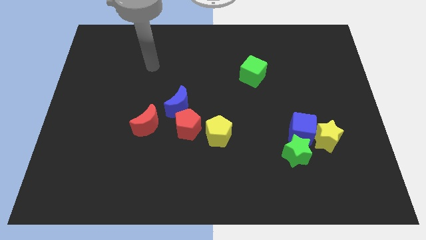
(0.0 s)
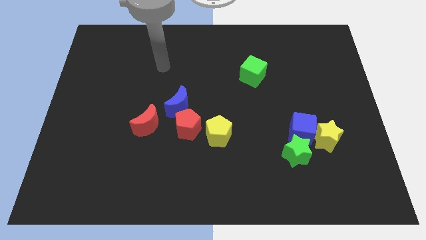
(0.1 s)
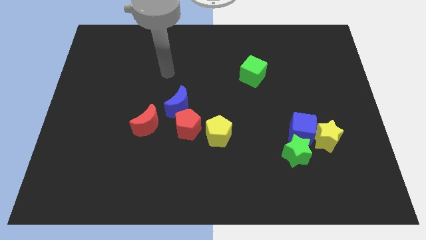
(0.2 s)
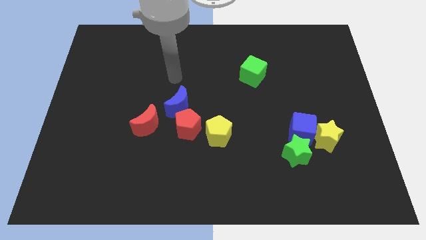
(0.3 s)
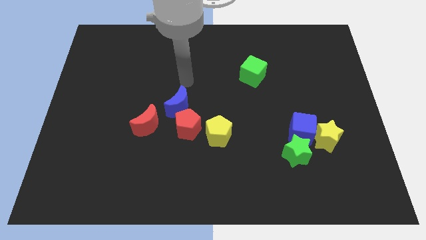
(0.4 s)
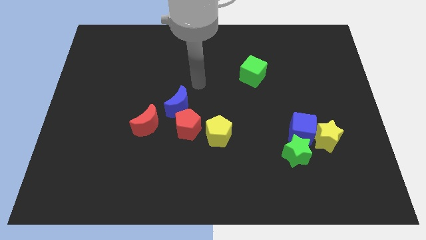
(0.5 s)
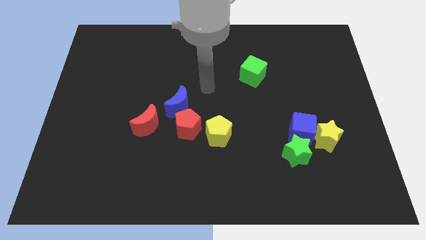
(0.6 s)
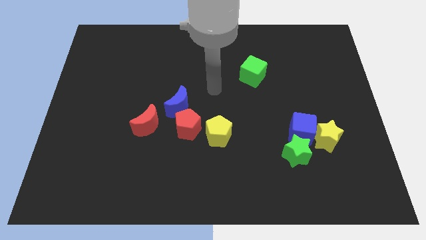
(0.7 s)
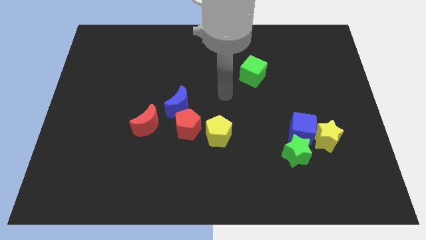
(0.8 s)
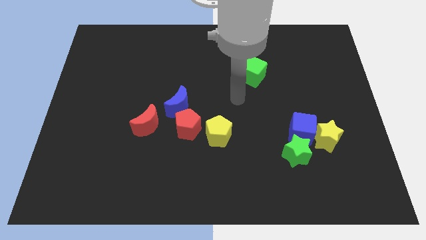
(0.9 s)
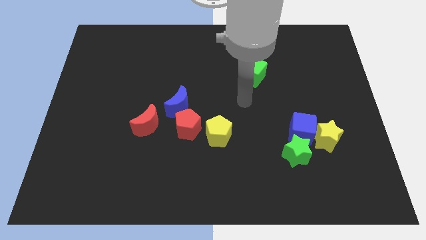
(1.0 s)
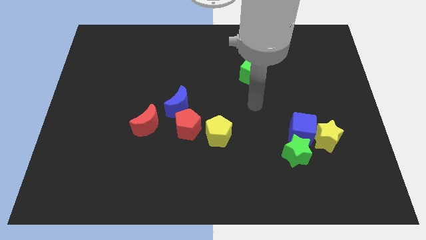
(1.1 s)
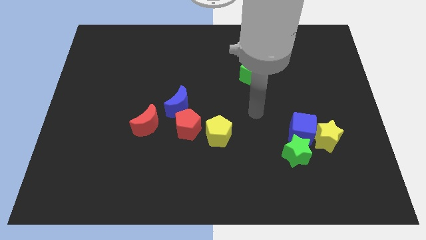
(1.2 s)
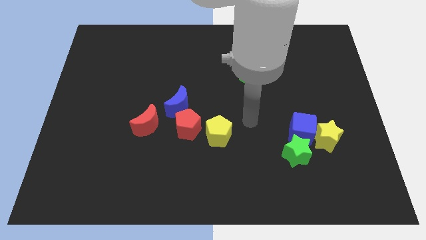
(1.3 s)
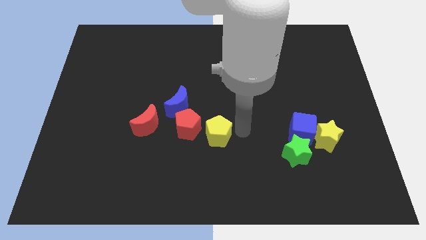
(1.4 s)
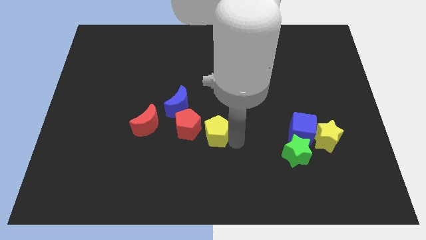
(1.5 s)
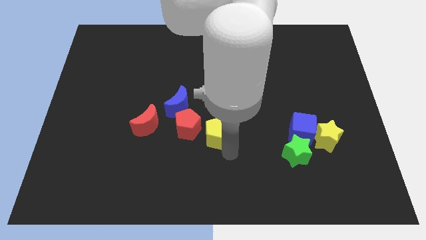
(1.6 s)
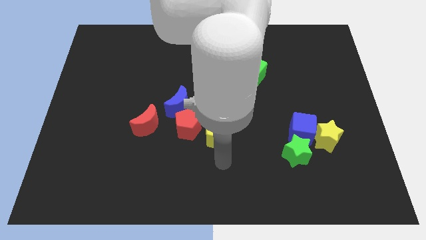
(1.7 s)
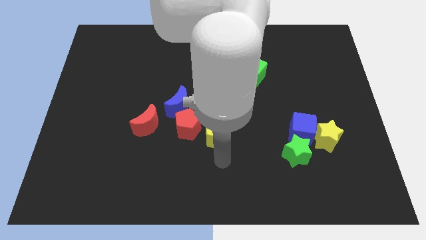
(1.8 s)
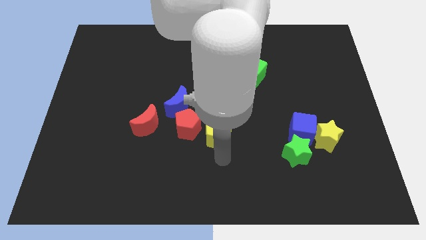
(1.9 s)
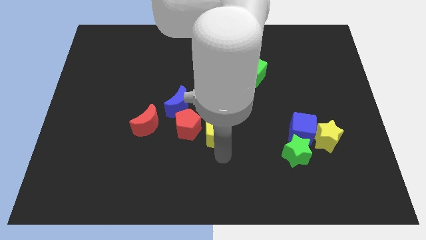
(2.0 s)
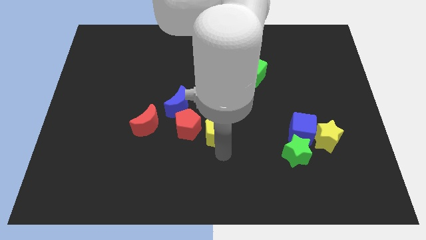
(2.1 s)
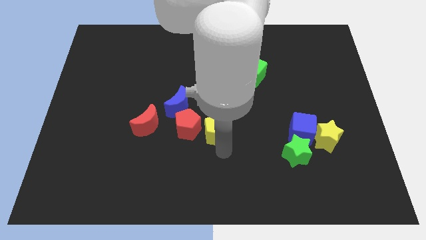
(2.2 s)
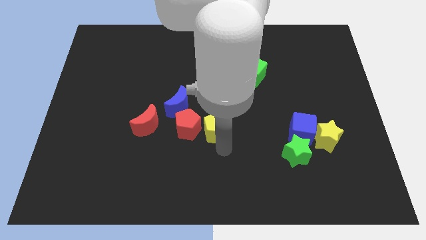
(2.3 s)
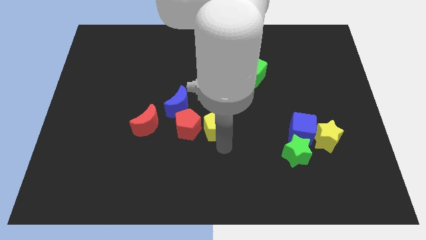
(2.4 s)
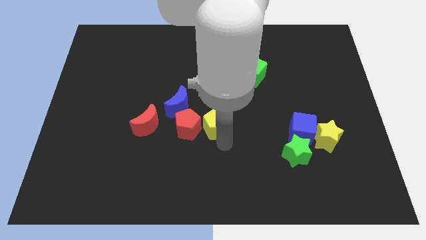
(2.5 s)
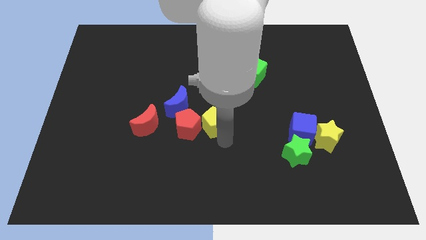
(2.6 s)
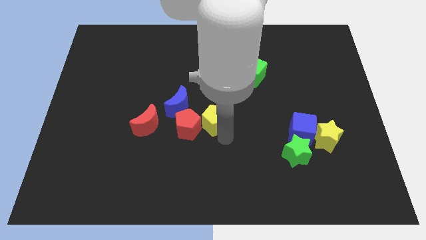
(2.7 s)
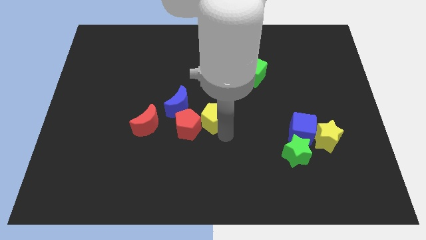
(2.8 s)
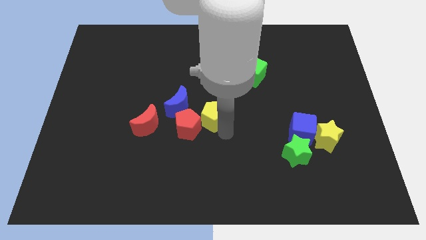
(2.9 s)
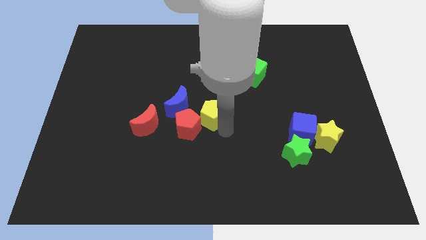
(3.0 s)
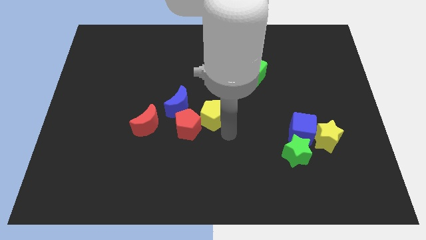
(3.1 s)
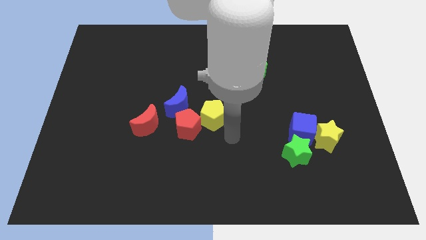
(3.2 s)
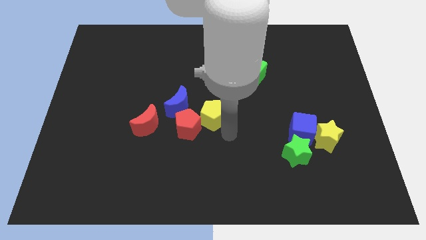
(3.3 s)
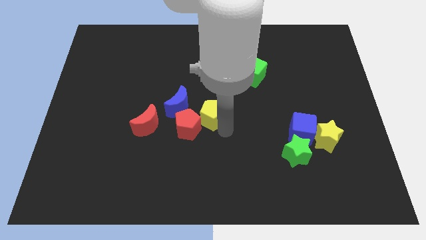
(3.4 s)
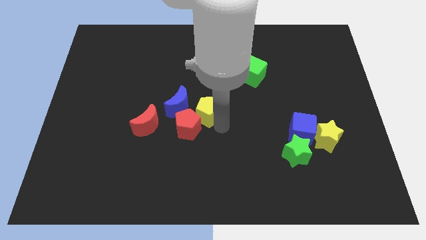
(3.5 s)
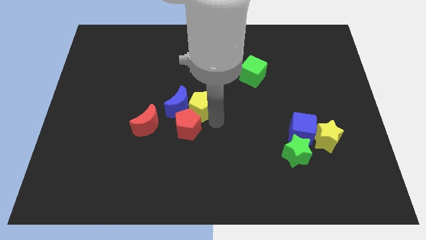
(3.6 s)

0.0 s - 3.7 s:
move the yellow pentagon a little upwards and to the left

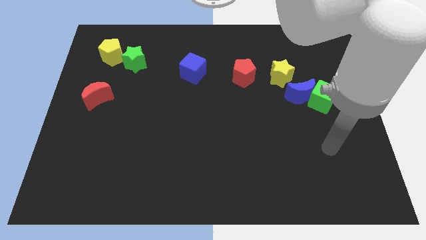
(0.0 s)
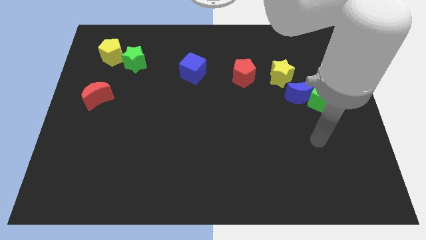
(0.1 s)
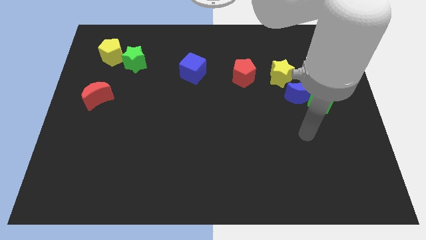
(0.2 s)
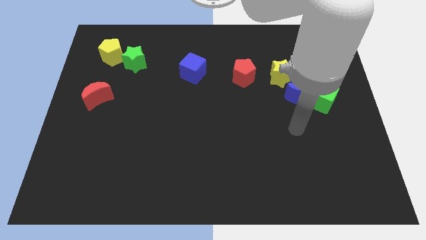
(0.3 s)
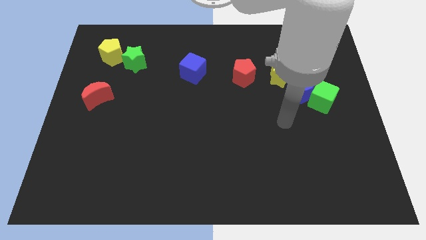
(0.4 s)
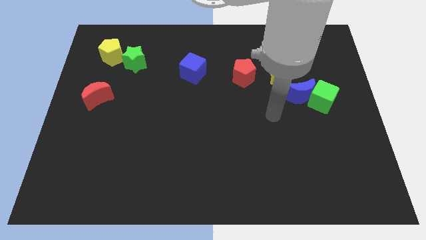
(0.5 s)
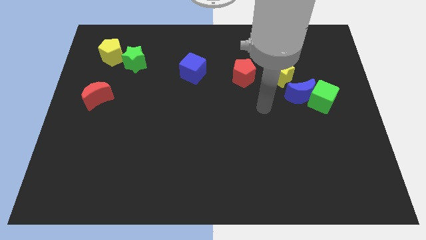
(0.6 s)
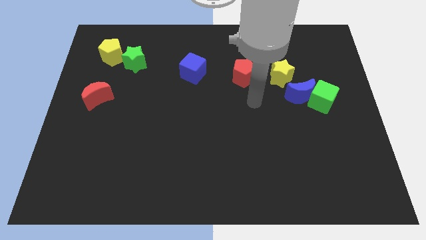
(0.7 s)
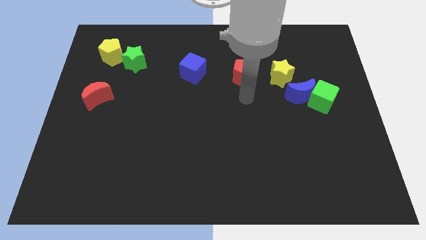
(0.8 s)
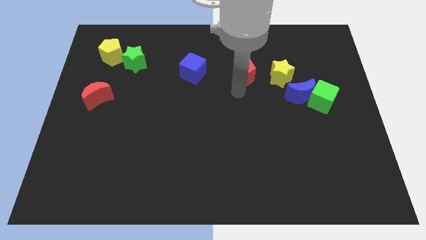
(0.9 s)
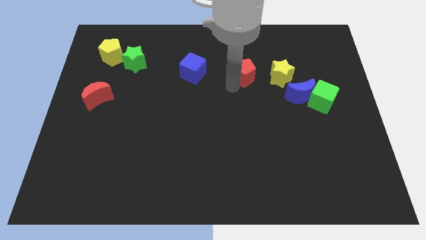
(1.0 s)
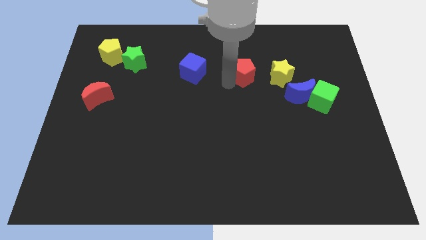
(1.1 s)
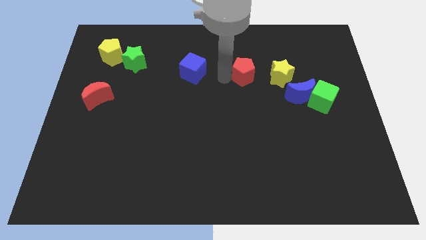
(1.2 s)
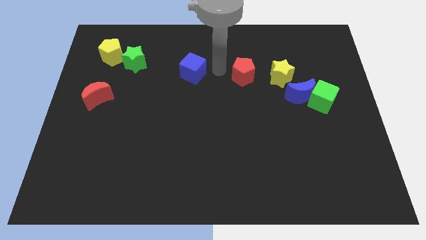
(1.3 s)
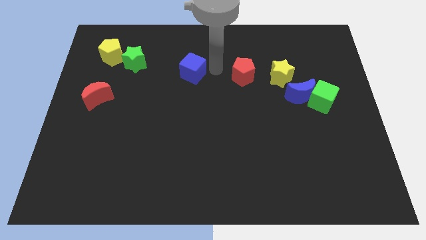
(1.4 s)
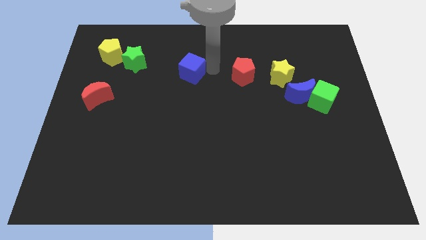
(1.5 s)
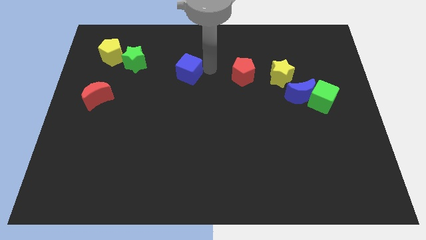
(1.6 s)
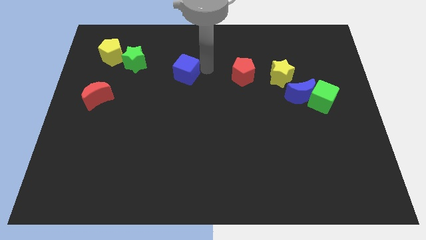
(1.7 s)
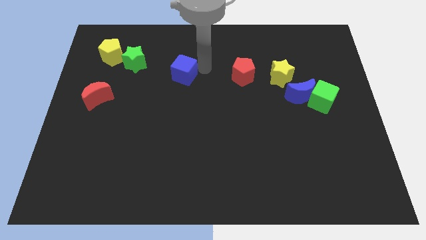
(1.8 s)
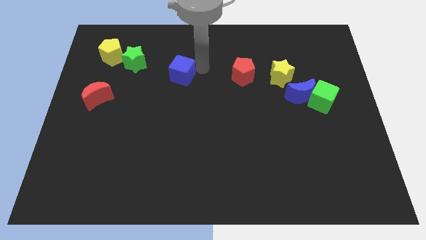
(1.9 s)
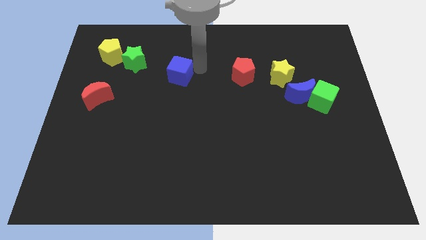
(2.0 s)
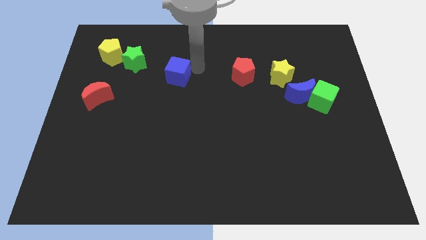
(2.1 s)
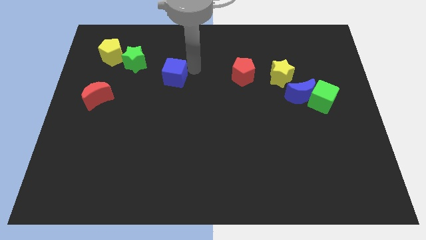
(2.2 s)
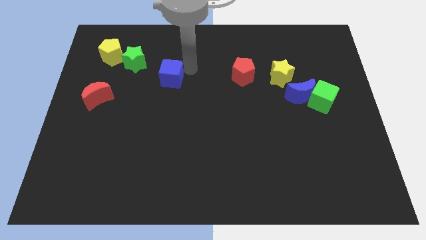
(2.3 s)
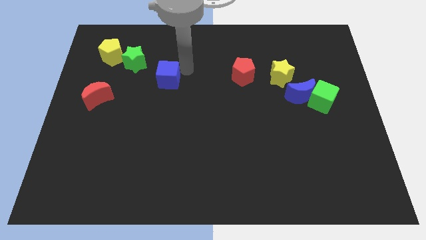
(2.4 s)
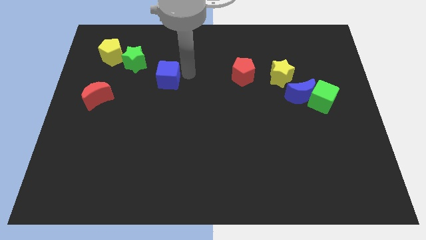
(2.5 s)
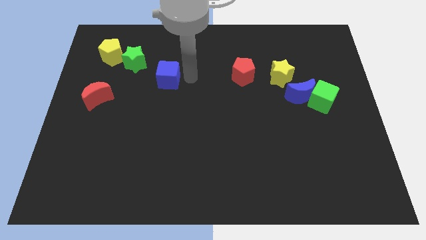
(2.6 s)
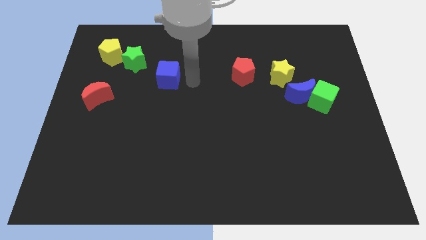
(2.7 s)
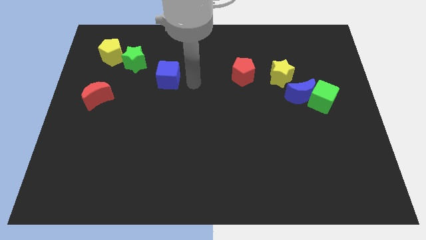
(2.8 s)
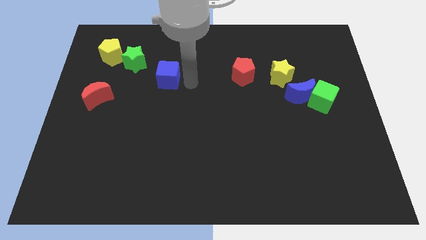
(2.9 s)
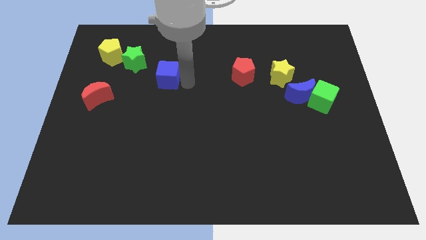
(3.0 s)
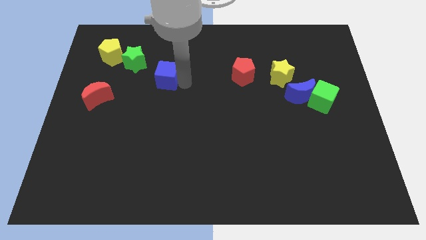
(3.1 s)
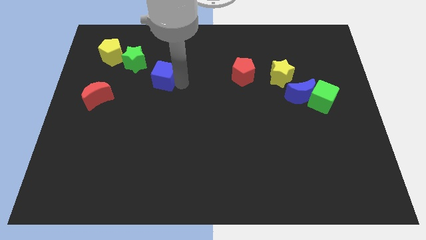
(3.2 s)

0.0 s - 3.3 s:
slightly push the blue cube to the left

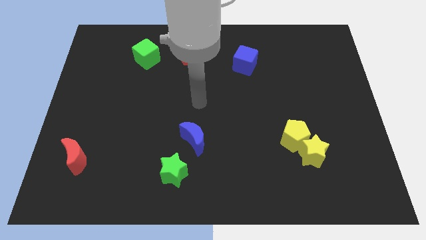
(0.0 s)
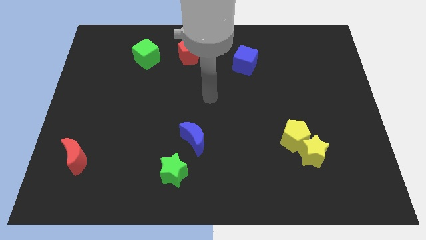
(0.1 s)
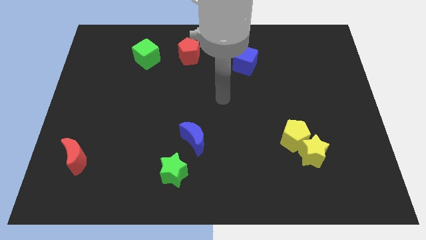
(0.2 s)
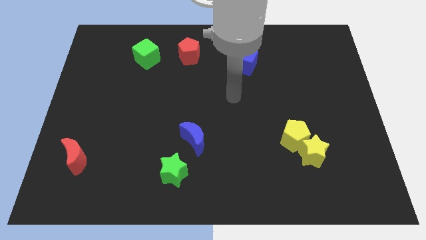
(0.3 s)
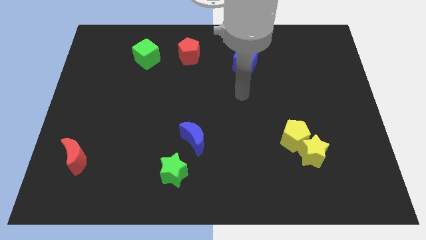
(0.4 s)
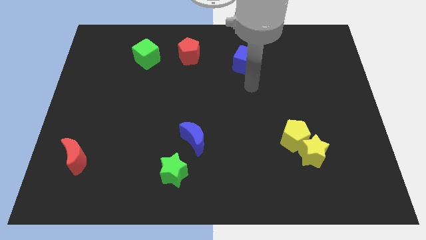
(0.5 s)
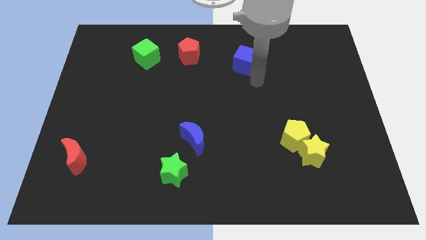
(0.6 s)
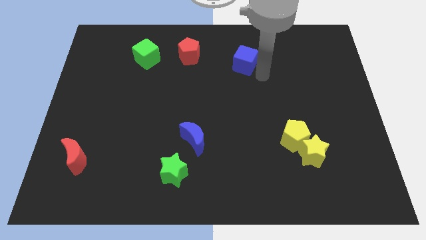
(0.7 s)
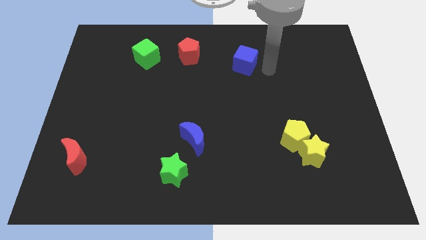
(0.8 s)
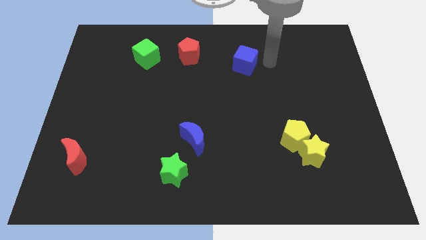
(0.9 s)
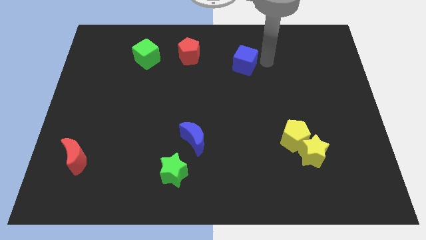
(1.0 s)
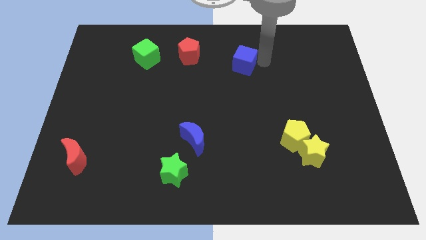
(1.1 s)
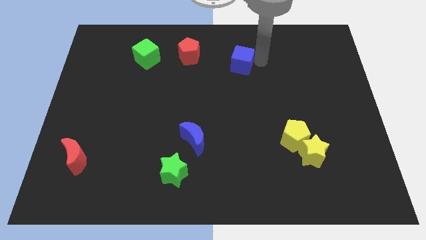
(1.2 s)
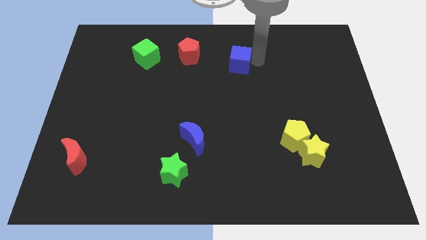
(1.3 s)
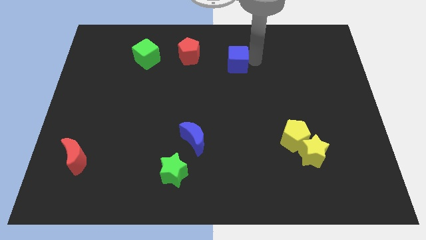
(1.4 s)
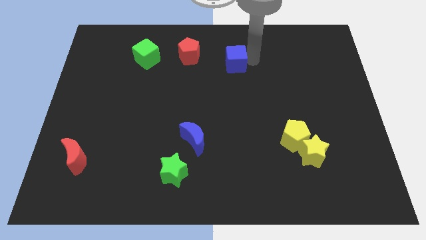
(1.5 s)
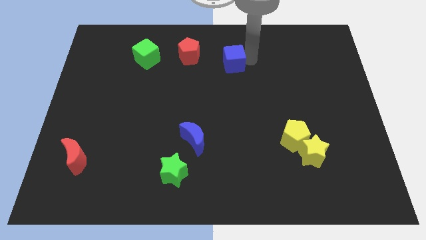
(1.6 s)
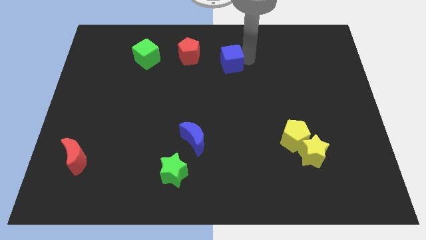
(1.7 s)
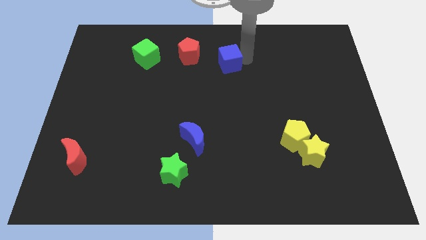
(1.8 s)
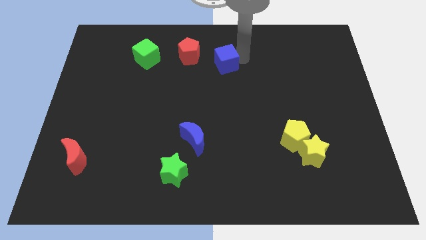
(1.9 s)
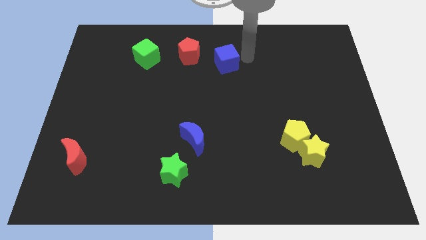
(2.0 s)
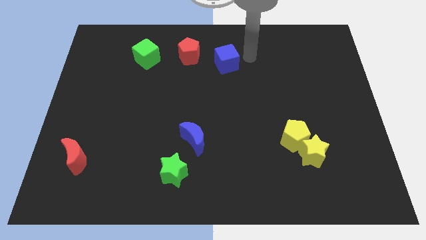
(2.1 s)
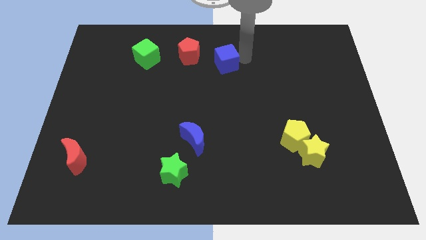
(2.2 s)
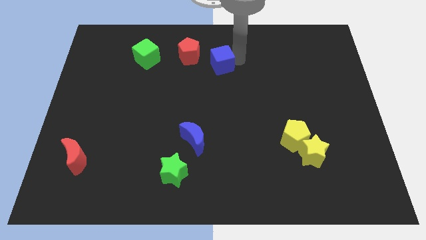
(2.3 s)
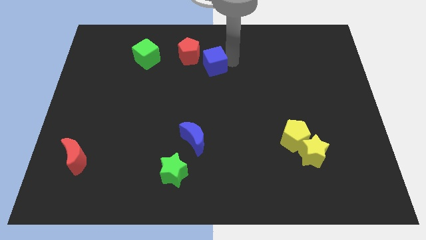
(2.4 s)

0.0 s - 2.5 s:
slightly move the blue cube left
